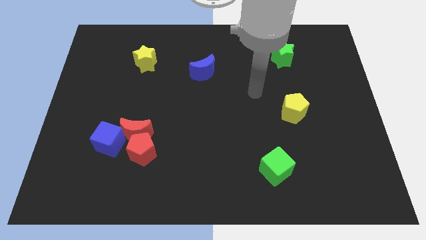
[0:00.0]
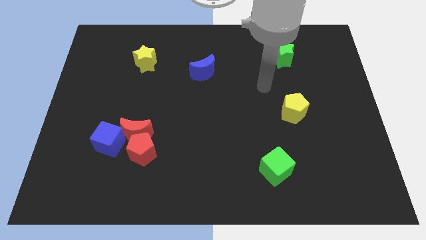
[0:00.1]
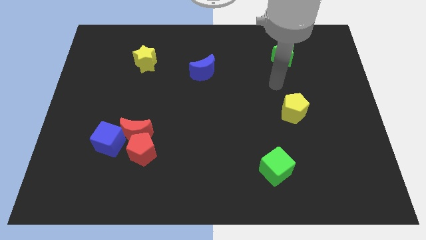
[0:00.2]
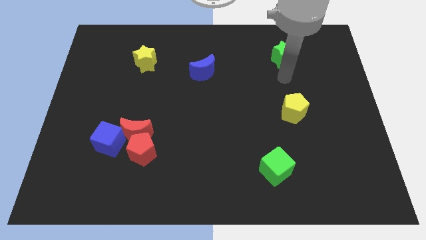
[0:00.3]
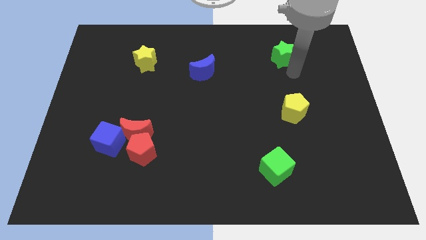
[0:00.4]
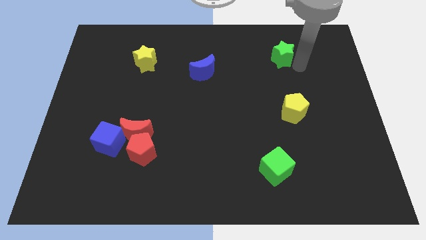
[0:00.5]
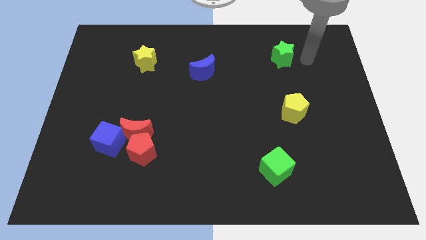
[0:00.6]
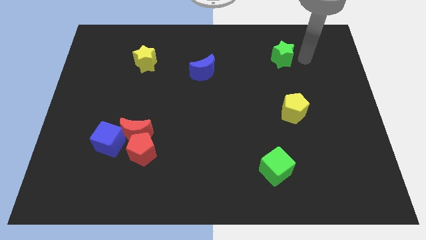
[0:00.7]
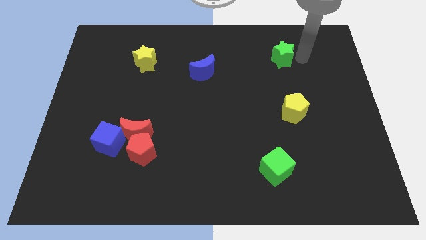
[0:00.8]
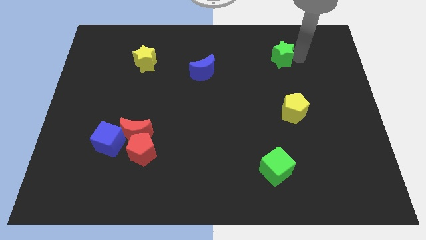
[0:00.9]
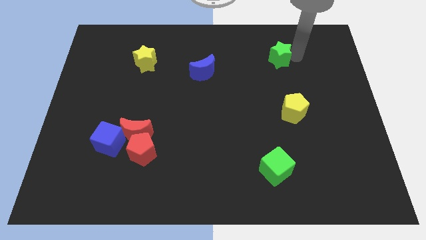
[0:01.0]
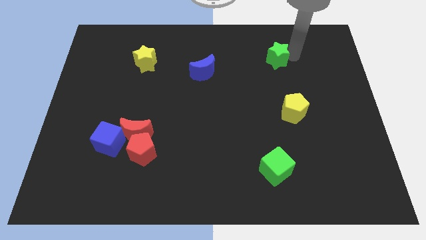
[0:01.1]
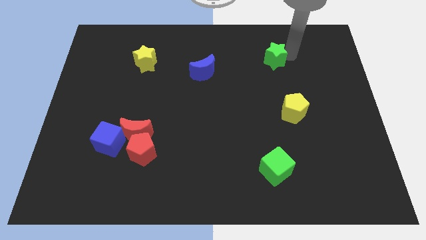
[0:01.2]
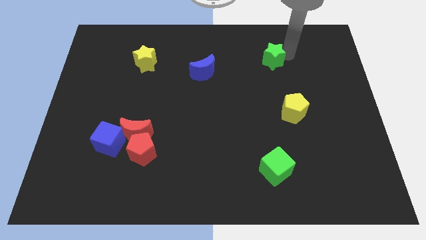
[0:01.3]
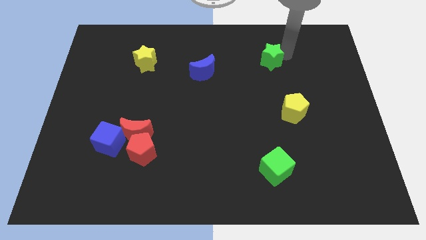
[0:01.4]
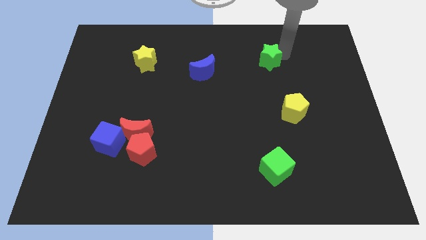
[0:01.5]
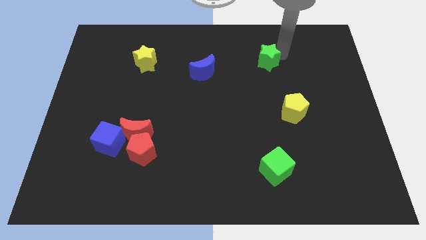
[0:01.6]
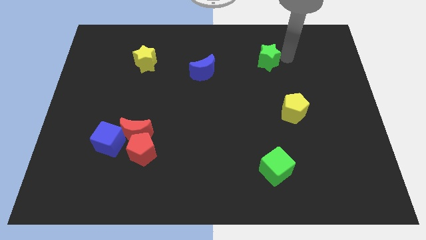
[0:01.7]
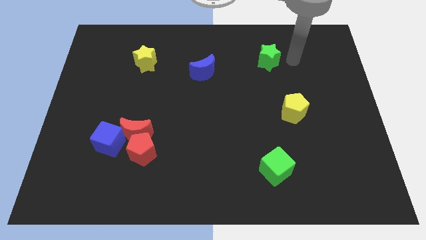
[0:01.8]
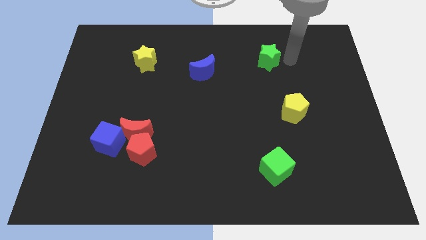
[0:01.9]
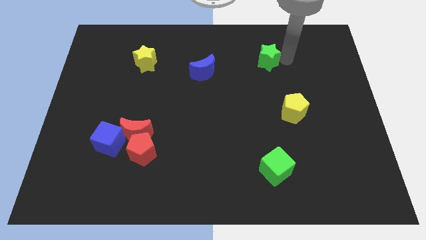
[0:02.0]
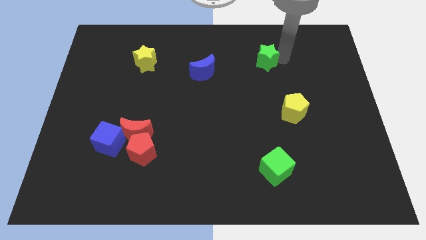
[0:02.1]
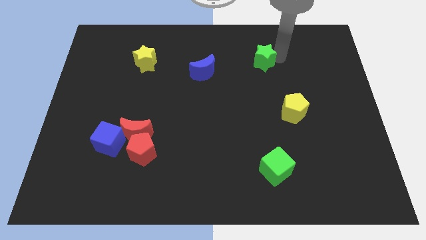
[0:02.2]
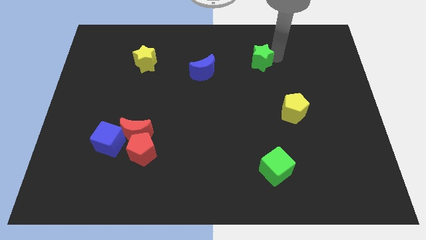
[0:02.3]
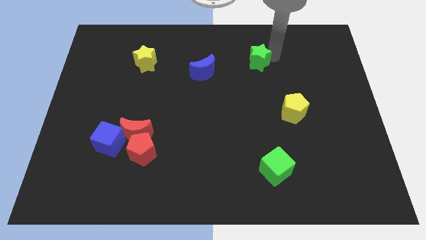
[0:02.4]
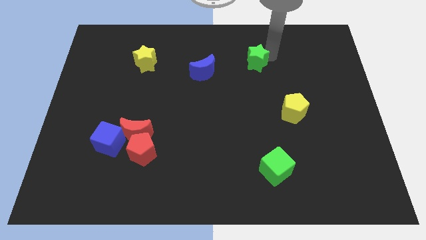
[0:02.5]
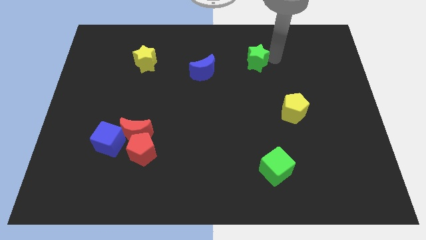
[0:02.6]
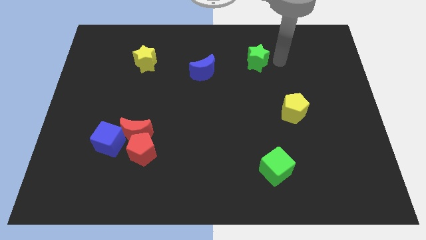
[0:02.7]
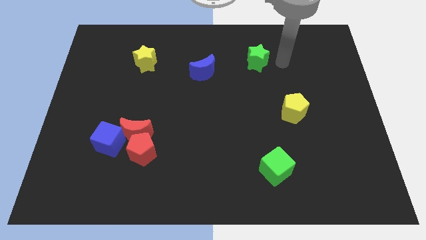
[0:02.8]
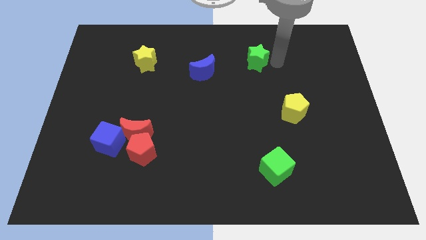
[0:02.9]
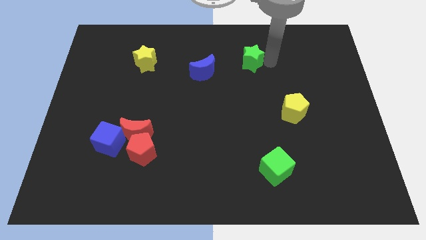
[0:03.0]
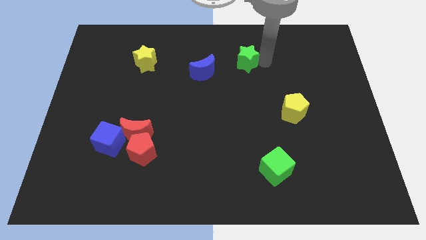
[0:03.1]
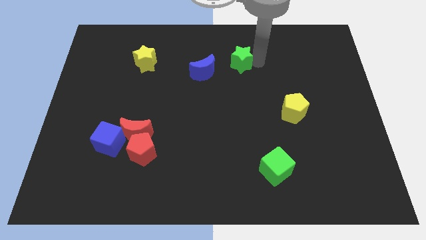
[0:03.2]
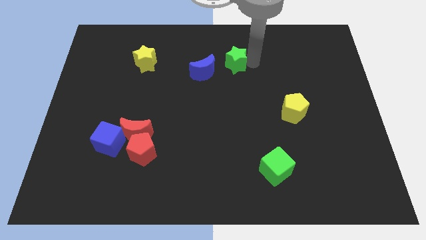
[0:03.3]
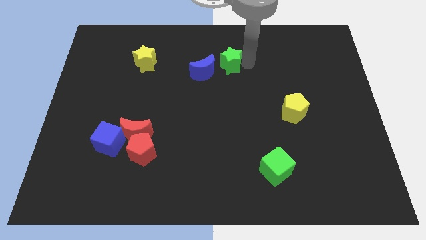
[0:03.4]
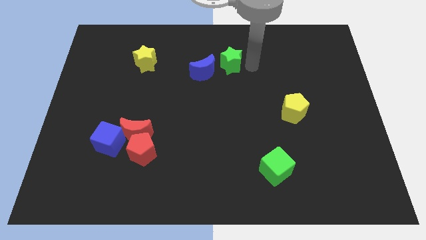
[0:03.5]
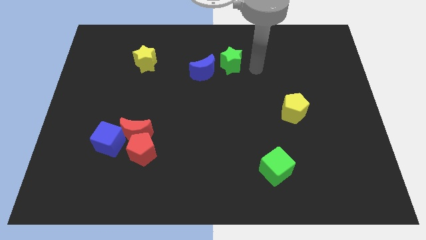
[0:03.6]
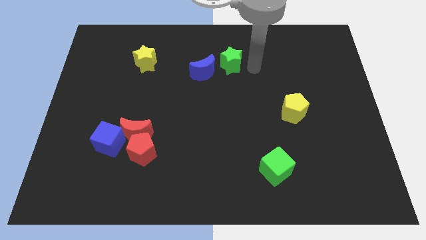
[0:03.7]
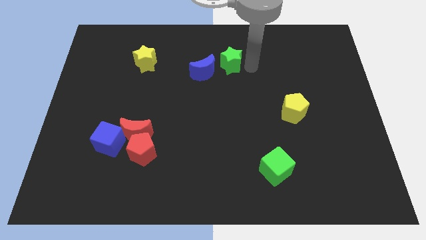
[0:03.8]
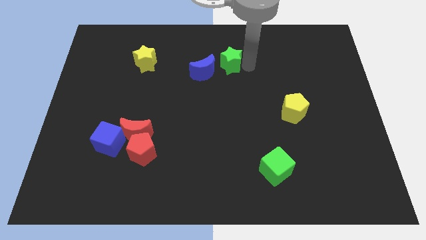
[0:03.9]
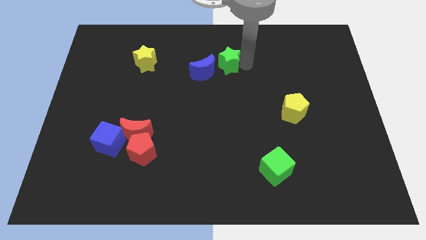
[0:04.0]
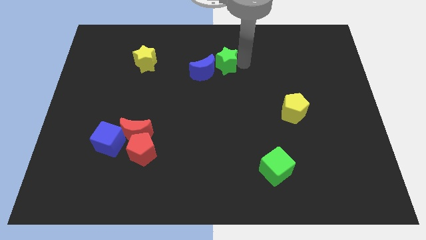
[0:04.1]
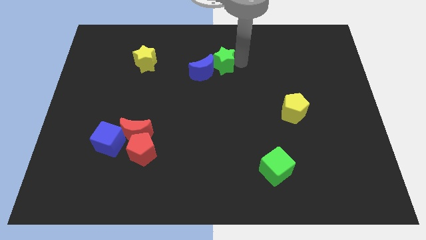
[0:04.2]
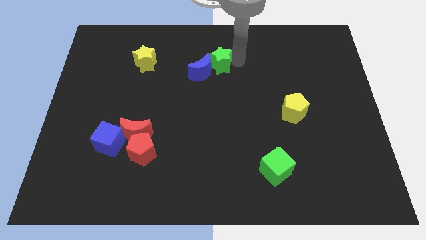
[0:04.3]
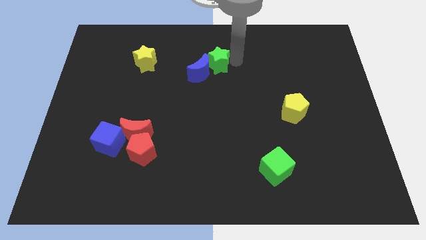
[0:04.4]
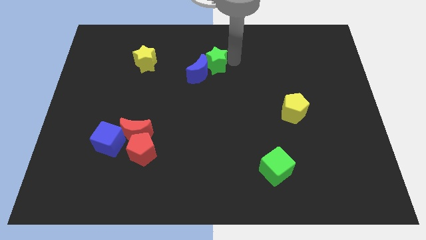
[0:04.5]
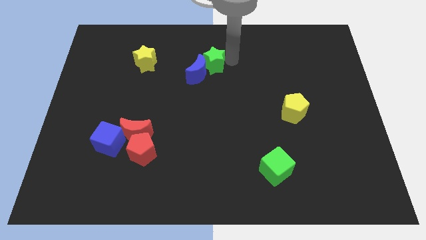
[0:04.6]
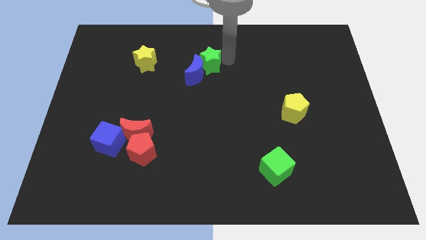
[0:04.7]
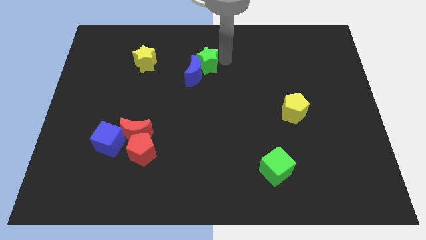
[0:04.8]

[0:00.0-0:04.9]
slide the green star to the right side of the yellow star

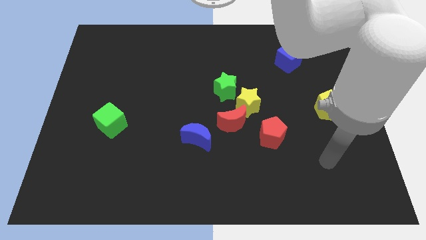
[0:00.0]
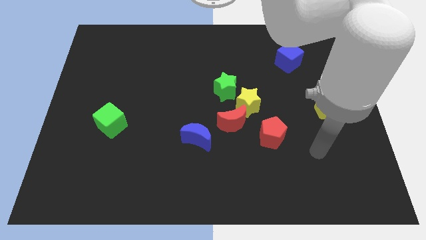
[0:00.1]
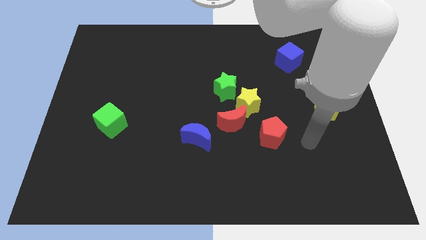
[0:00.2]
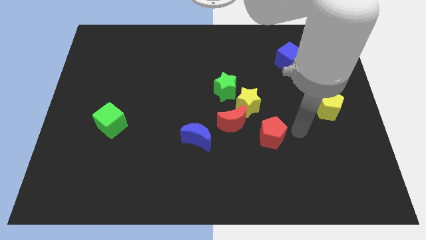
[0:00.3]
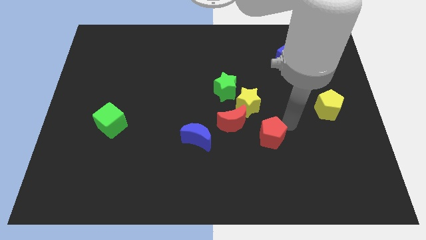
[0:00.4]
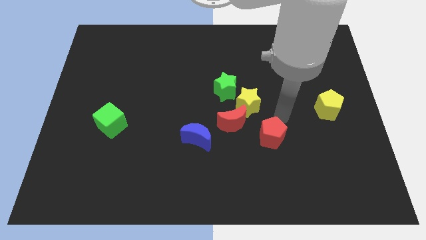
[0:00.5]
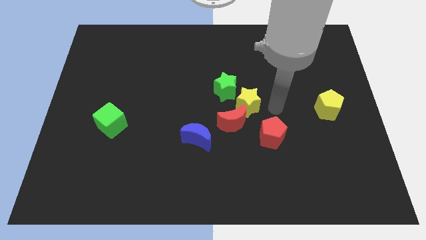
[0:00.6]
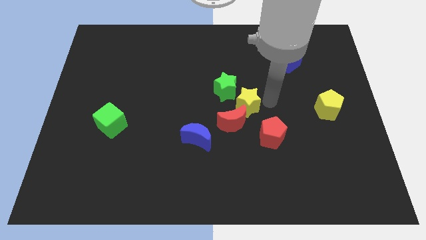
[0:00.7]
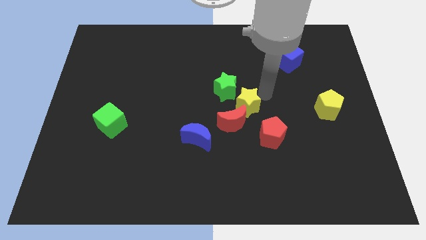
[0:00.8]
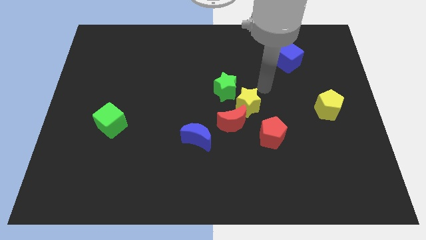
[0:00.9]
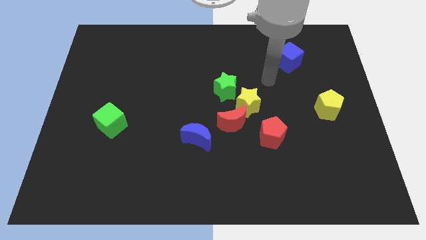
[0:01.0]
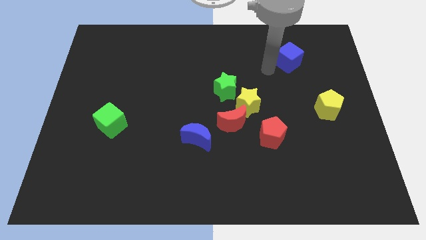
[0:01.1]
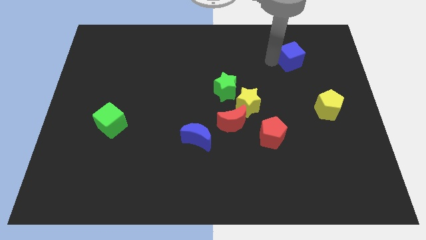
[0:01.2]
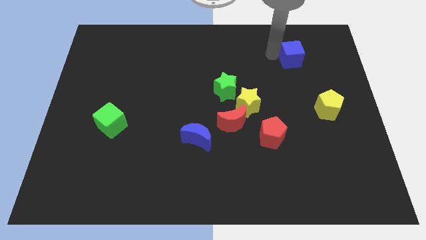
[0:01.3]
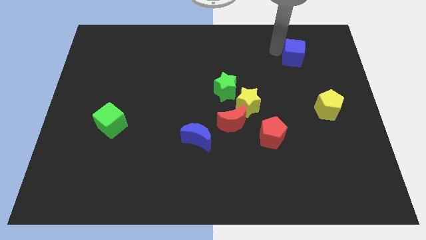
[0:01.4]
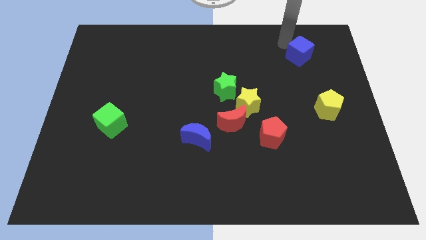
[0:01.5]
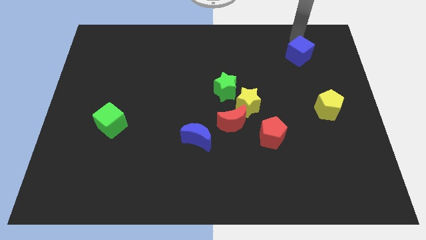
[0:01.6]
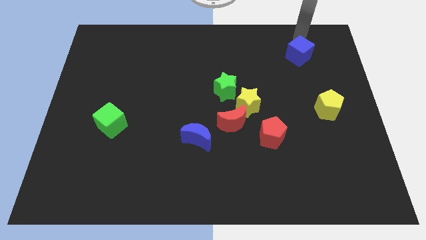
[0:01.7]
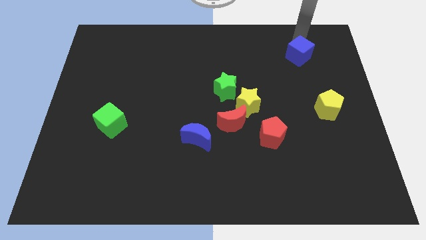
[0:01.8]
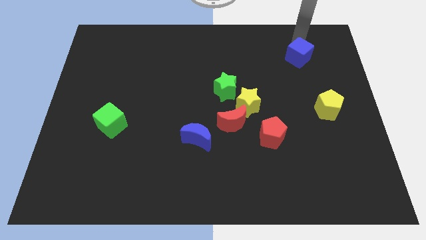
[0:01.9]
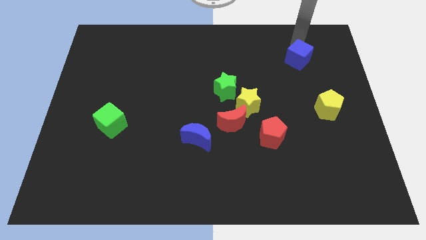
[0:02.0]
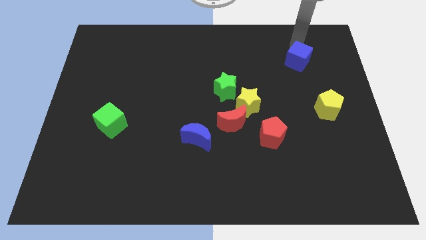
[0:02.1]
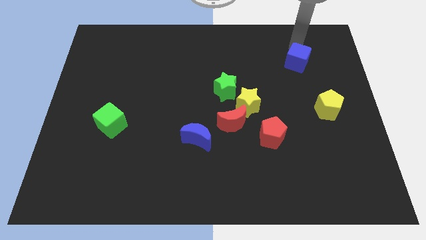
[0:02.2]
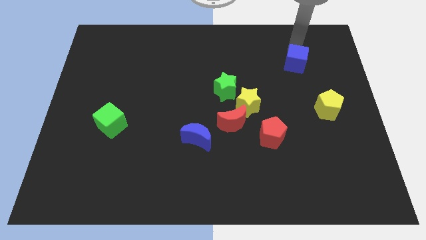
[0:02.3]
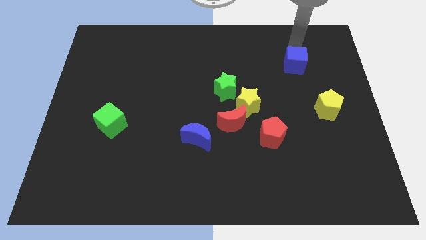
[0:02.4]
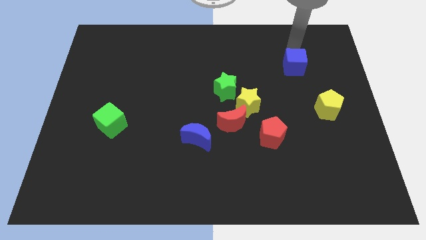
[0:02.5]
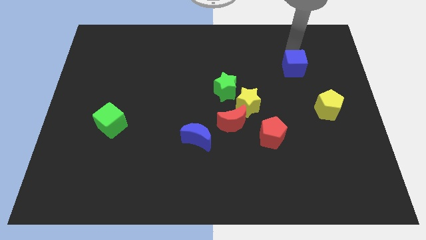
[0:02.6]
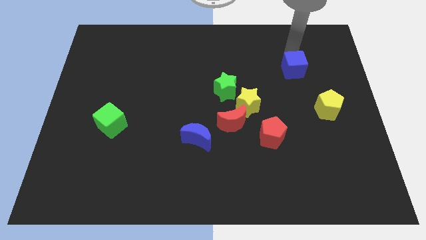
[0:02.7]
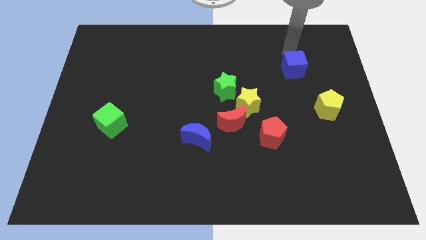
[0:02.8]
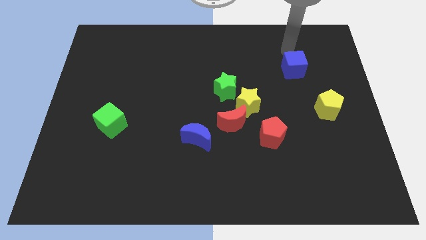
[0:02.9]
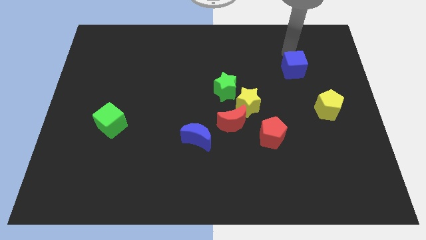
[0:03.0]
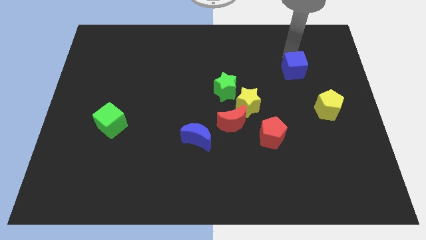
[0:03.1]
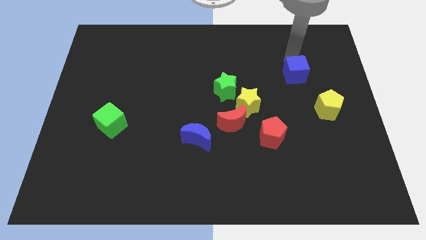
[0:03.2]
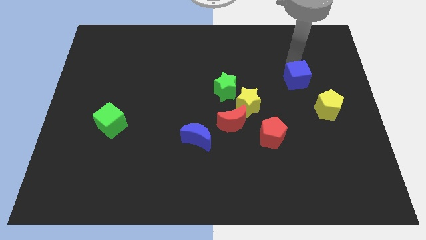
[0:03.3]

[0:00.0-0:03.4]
push the blue cube to the top left of the yellow pentagon
